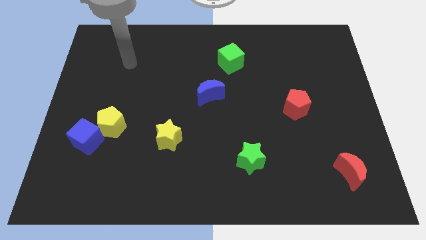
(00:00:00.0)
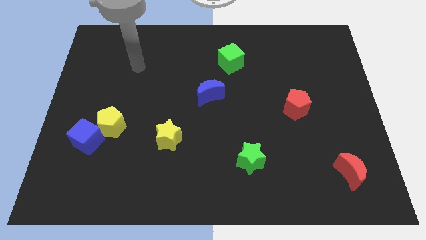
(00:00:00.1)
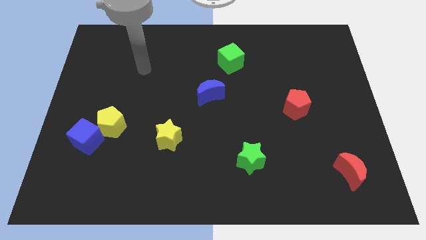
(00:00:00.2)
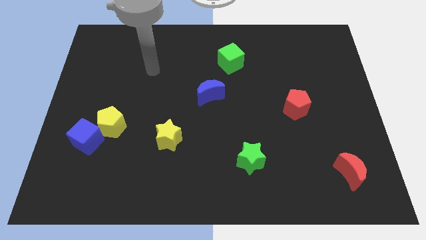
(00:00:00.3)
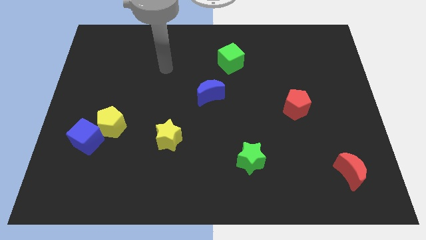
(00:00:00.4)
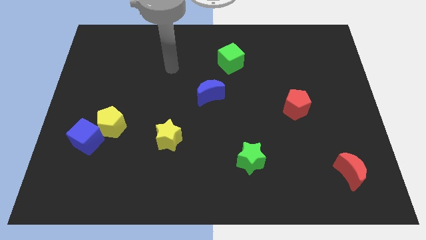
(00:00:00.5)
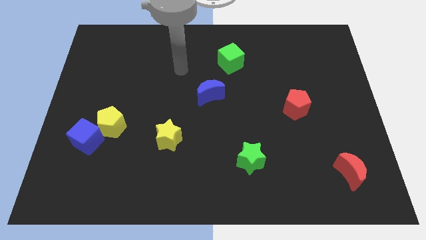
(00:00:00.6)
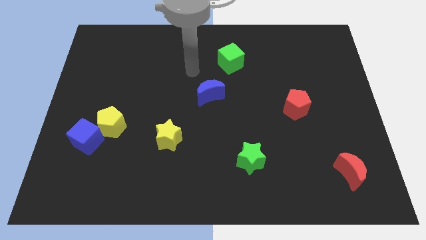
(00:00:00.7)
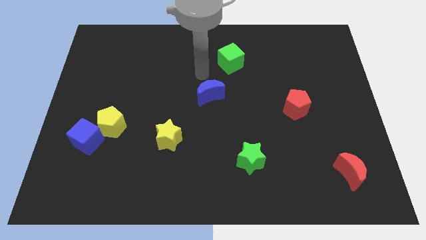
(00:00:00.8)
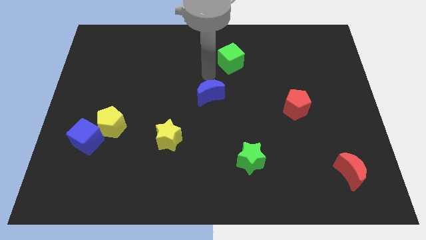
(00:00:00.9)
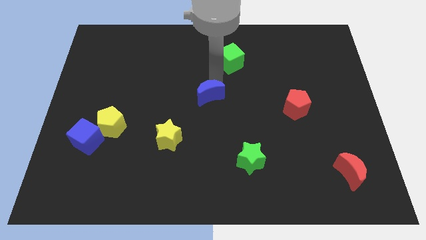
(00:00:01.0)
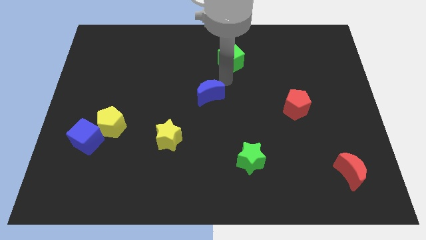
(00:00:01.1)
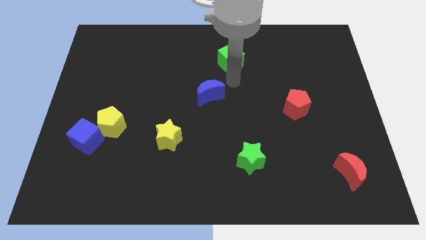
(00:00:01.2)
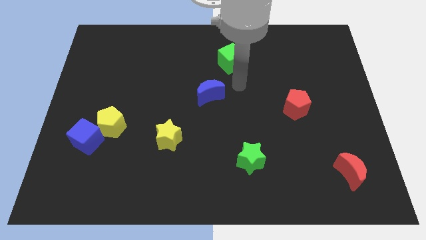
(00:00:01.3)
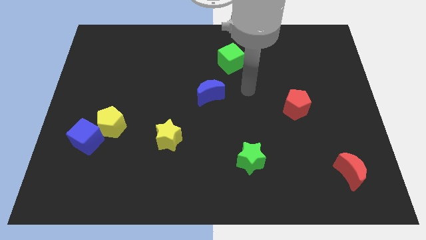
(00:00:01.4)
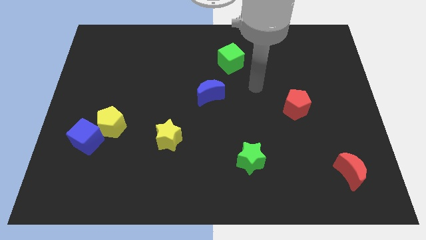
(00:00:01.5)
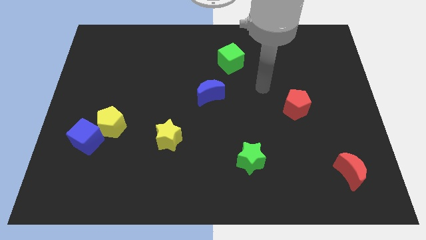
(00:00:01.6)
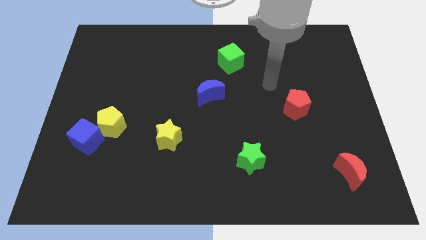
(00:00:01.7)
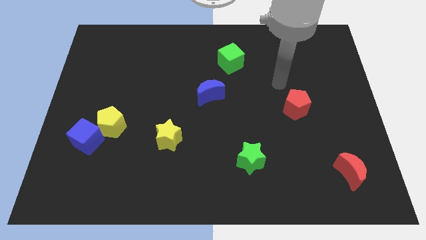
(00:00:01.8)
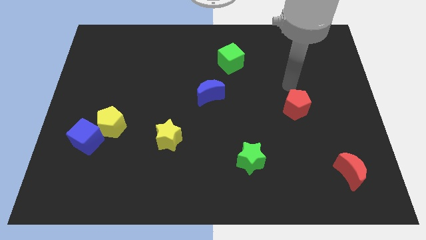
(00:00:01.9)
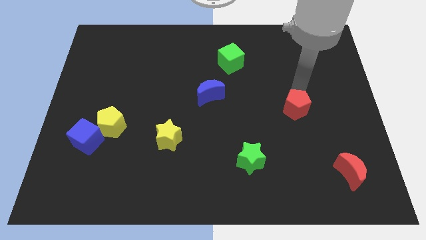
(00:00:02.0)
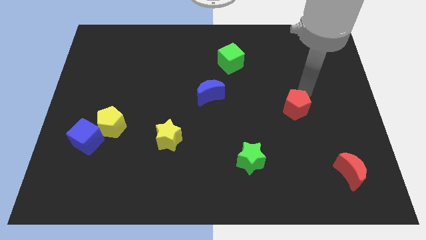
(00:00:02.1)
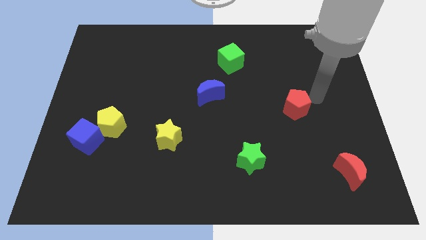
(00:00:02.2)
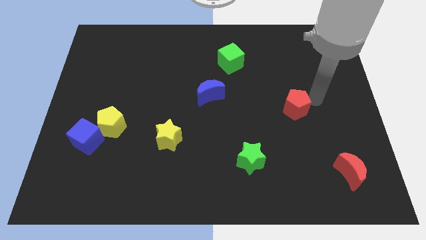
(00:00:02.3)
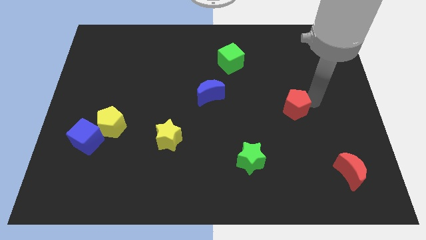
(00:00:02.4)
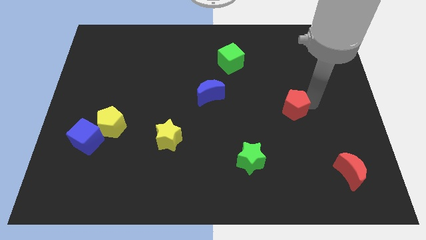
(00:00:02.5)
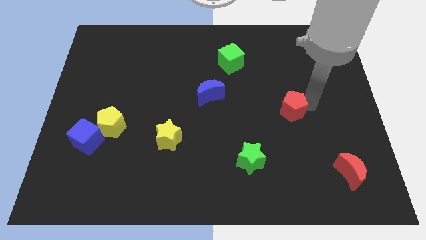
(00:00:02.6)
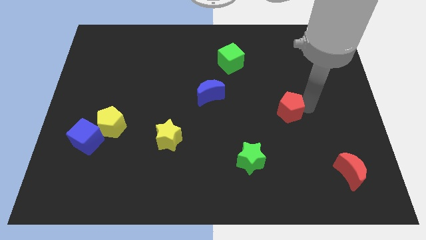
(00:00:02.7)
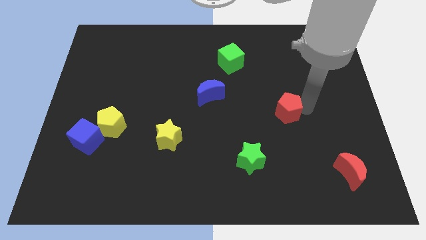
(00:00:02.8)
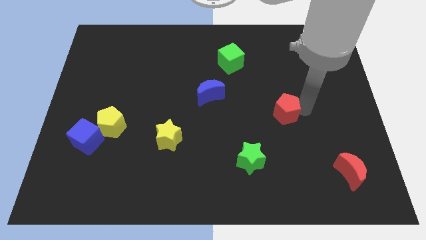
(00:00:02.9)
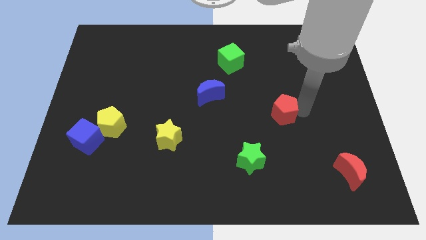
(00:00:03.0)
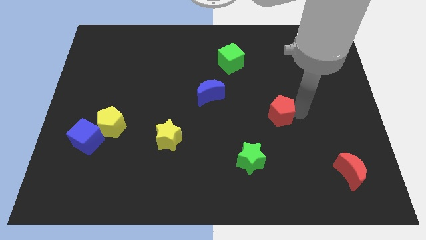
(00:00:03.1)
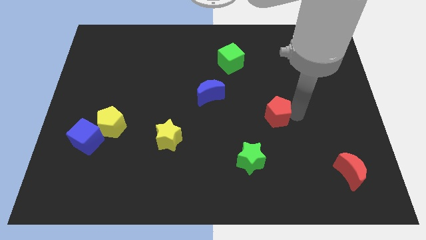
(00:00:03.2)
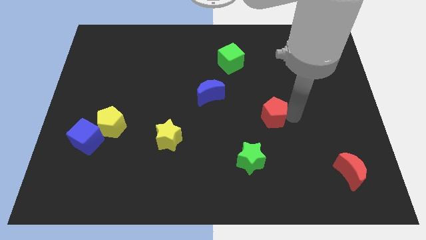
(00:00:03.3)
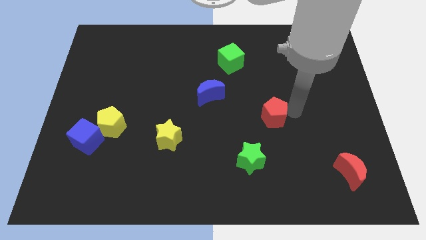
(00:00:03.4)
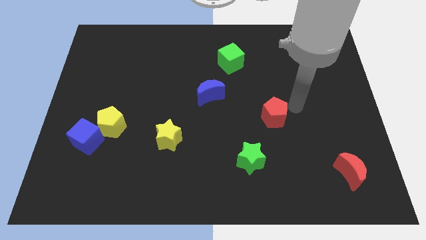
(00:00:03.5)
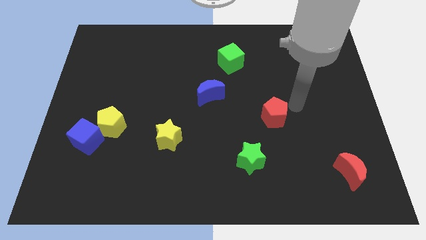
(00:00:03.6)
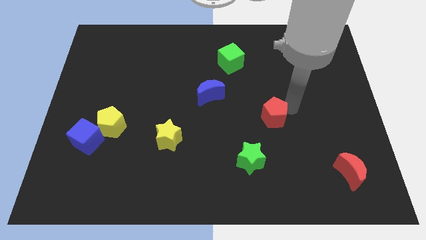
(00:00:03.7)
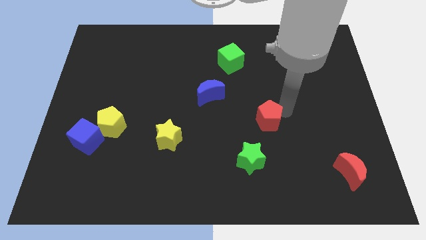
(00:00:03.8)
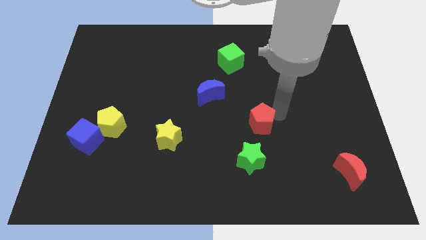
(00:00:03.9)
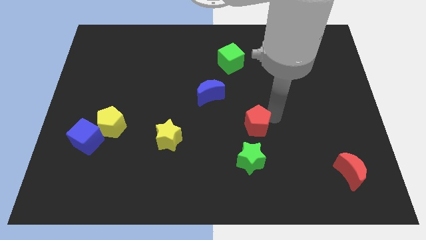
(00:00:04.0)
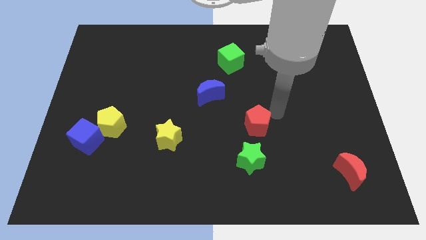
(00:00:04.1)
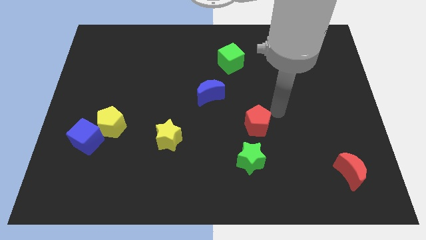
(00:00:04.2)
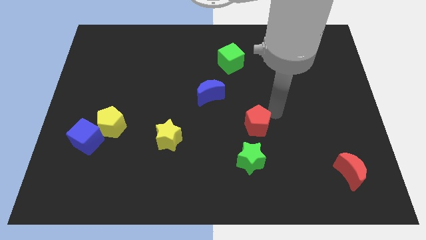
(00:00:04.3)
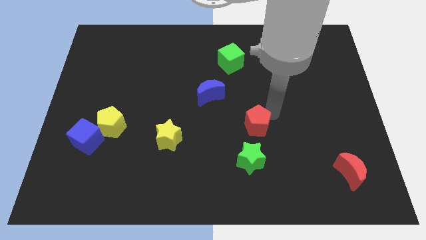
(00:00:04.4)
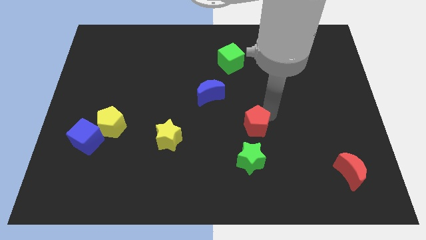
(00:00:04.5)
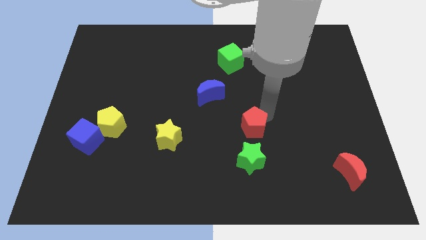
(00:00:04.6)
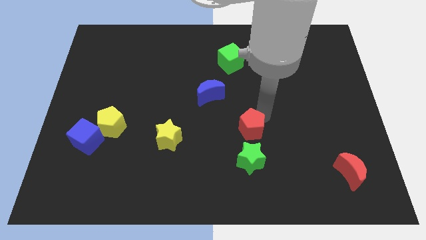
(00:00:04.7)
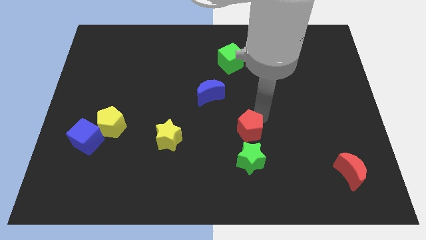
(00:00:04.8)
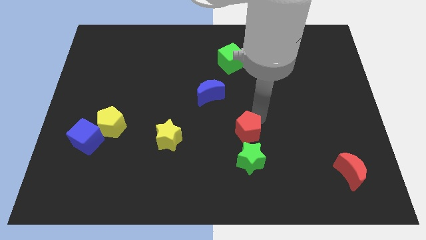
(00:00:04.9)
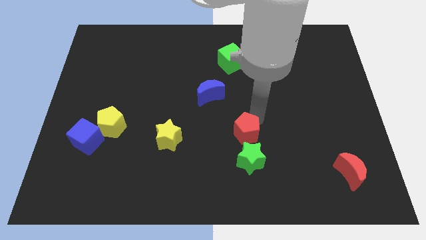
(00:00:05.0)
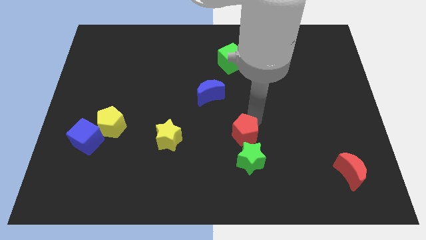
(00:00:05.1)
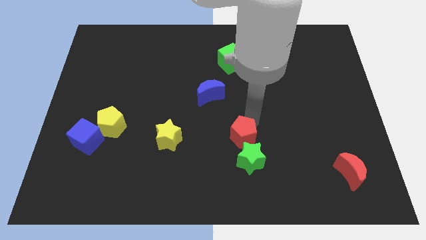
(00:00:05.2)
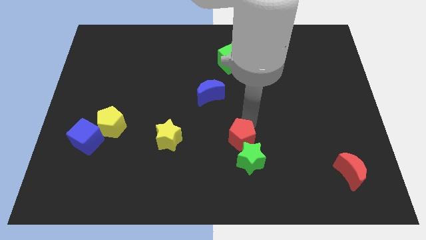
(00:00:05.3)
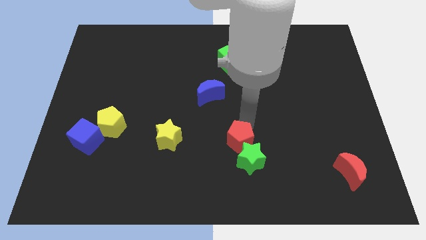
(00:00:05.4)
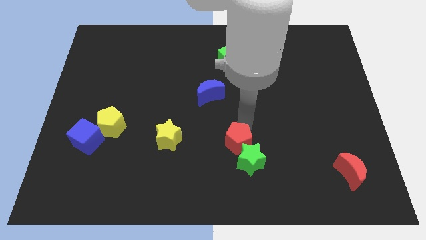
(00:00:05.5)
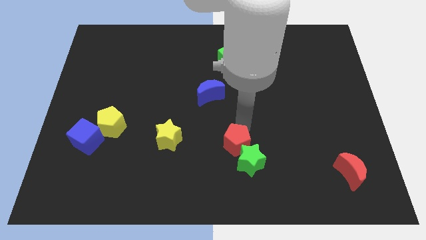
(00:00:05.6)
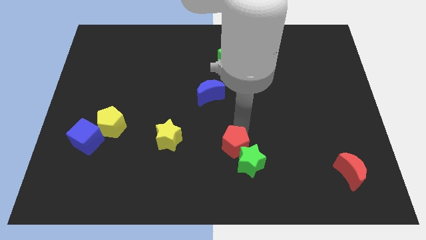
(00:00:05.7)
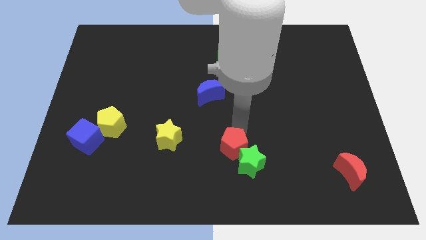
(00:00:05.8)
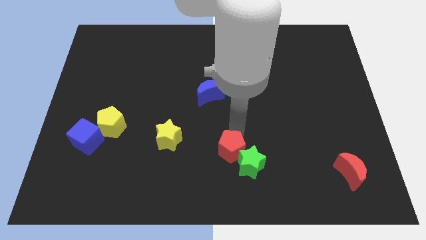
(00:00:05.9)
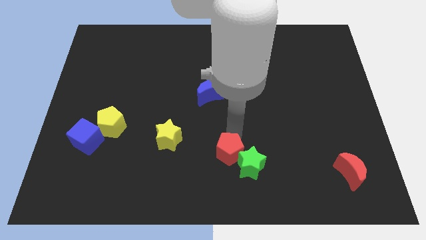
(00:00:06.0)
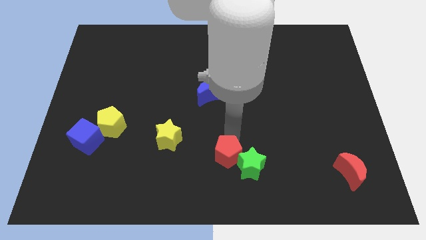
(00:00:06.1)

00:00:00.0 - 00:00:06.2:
push the red pentagon to the bottom
